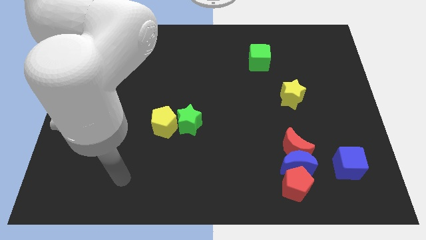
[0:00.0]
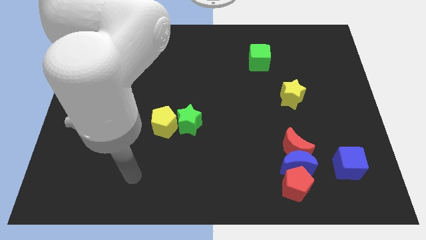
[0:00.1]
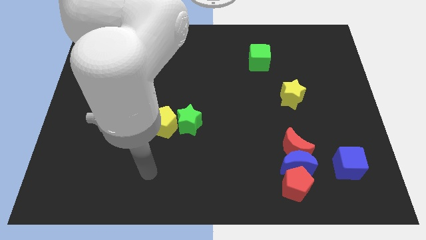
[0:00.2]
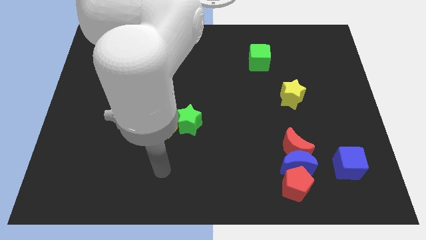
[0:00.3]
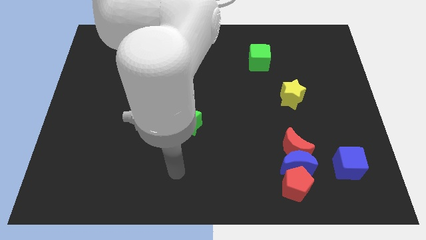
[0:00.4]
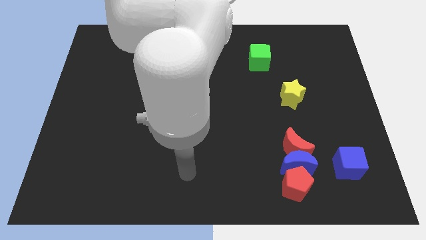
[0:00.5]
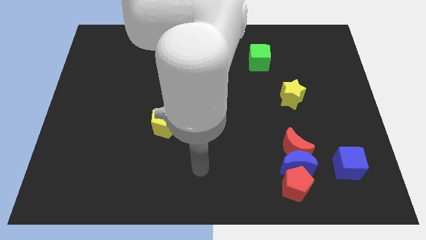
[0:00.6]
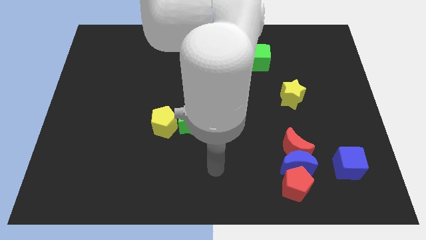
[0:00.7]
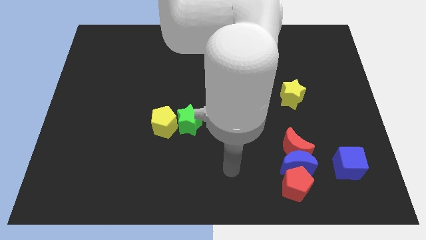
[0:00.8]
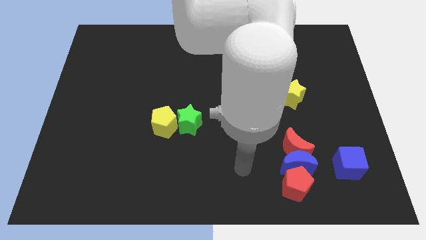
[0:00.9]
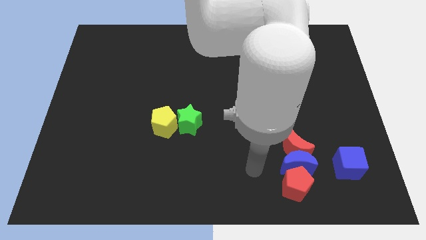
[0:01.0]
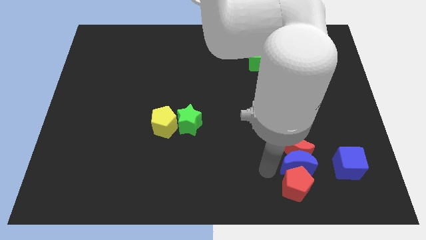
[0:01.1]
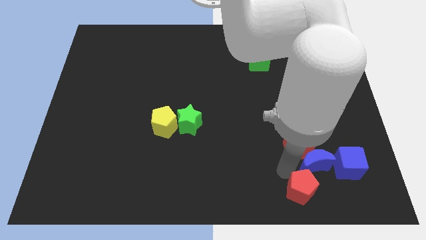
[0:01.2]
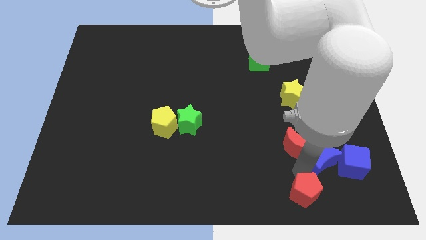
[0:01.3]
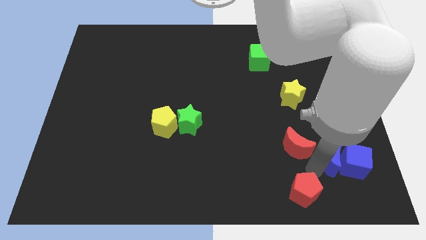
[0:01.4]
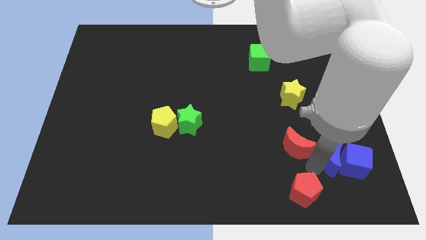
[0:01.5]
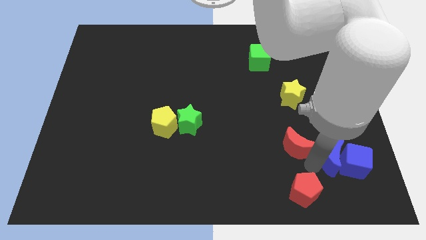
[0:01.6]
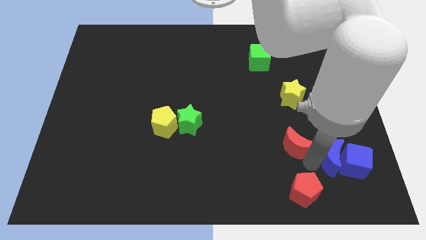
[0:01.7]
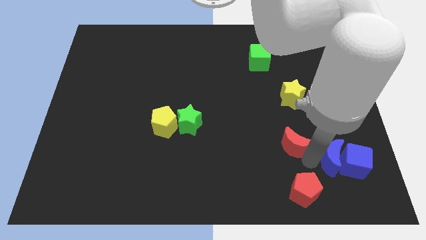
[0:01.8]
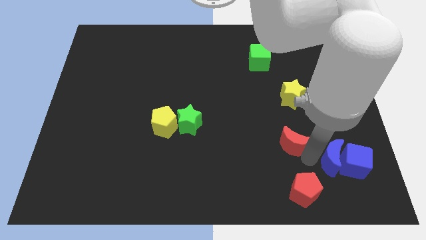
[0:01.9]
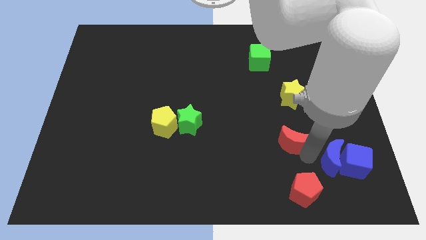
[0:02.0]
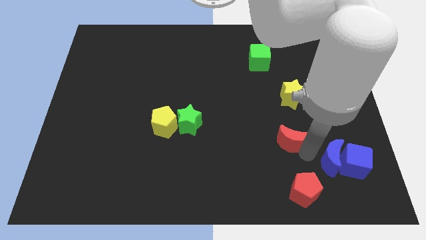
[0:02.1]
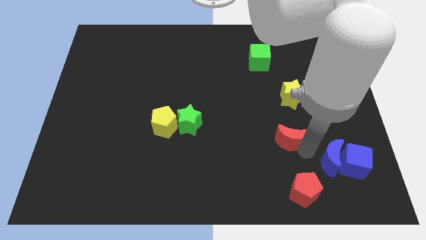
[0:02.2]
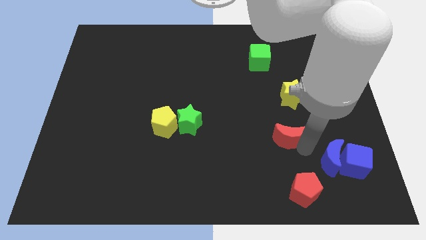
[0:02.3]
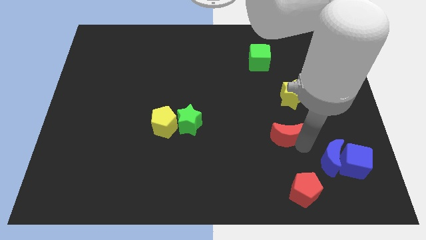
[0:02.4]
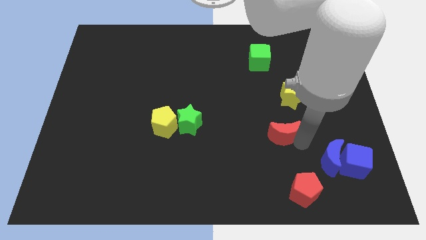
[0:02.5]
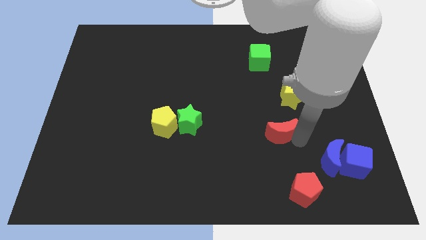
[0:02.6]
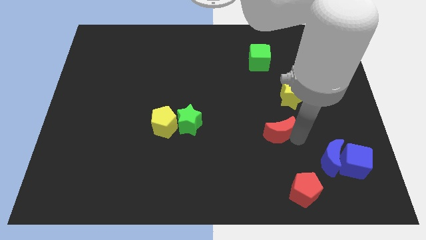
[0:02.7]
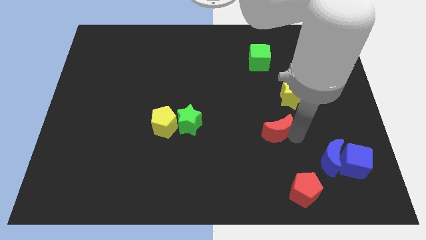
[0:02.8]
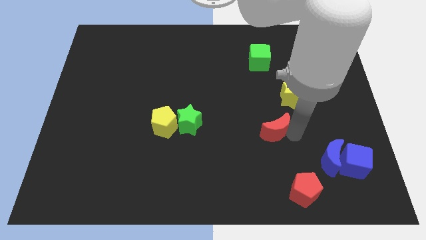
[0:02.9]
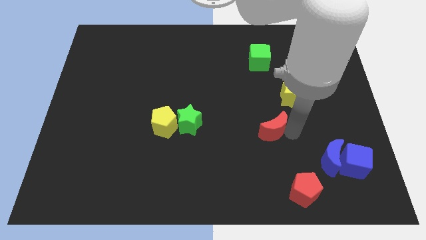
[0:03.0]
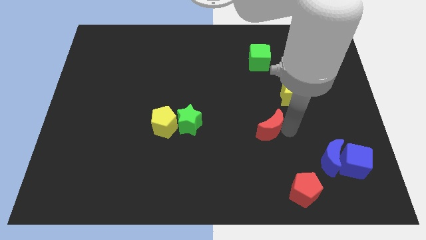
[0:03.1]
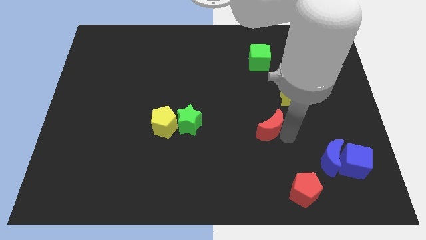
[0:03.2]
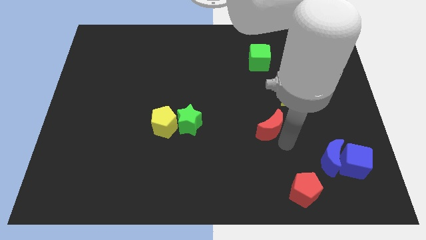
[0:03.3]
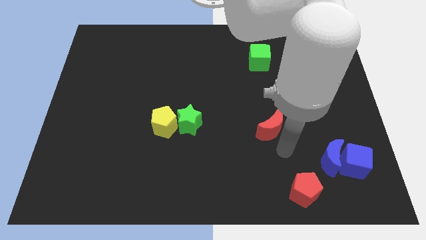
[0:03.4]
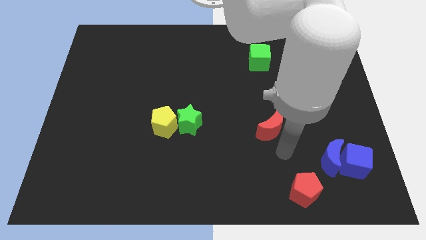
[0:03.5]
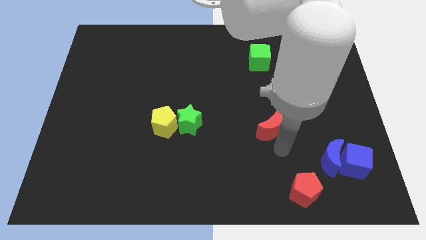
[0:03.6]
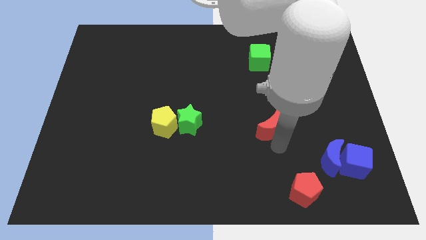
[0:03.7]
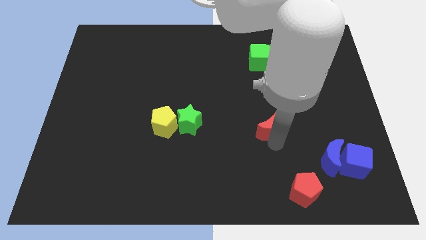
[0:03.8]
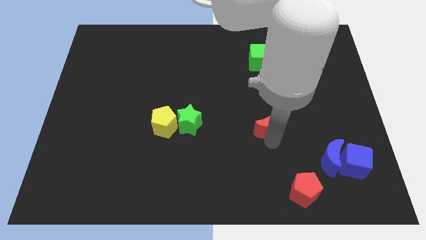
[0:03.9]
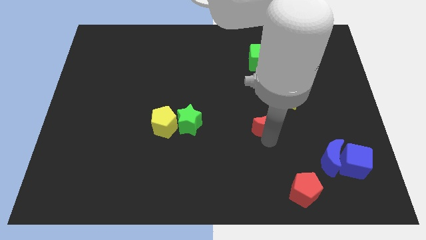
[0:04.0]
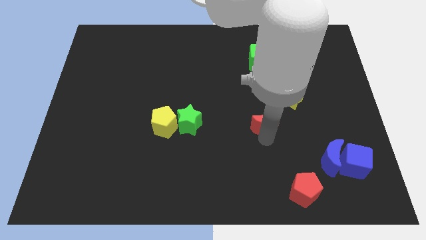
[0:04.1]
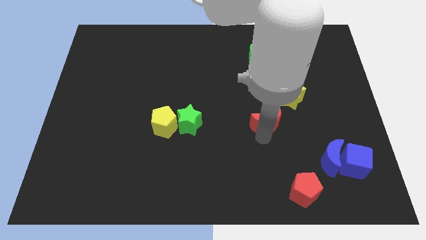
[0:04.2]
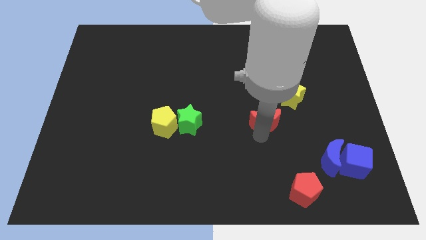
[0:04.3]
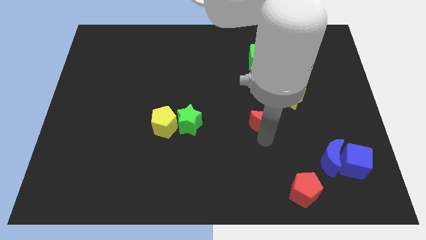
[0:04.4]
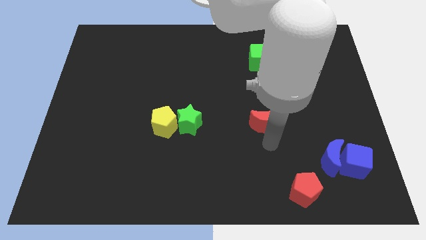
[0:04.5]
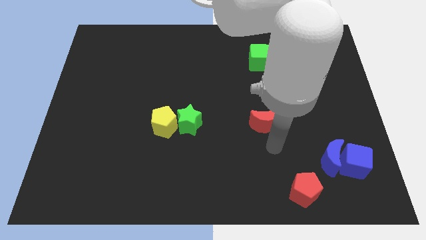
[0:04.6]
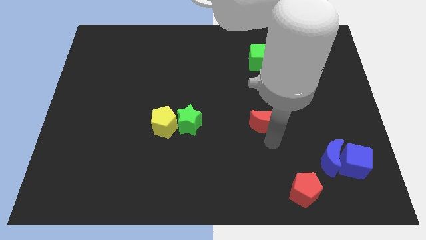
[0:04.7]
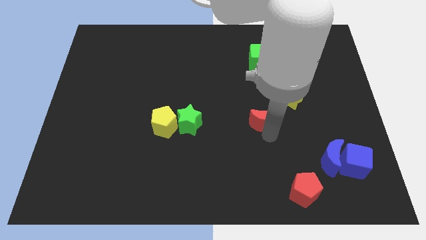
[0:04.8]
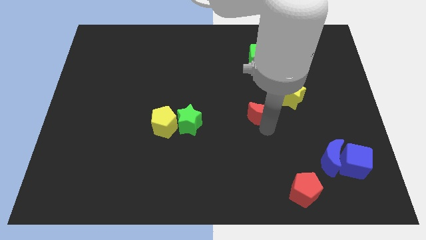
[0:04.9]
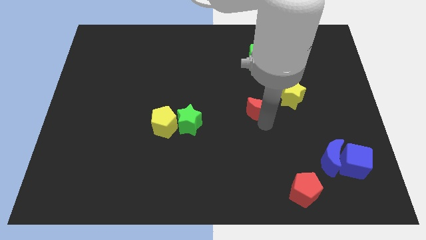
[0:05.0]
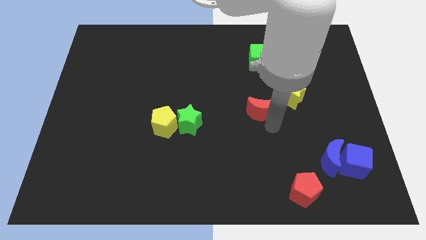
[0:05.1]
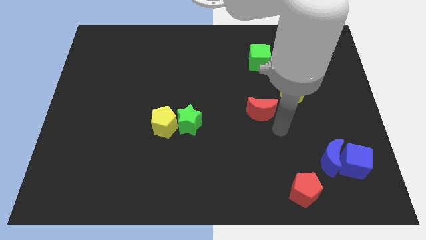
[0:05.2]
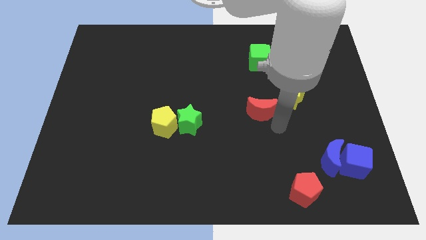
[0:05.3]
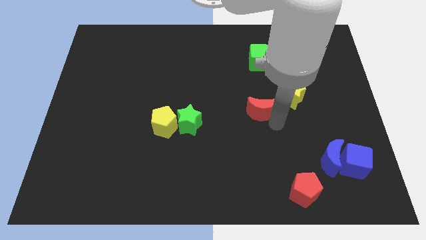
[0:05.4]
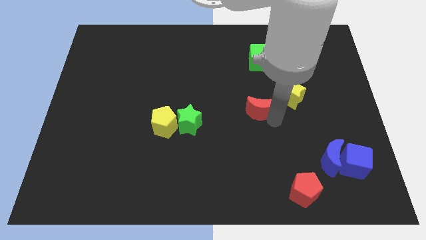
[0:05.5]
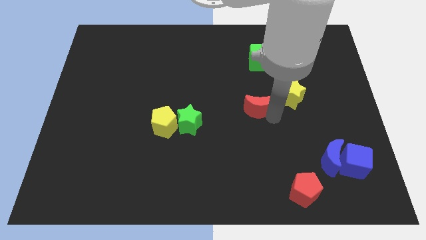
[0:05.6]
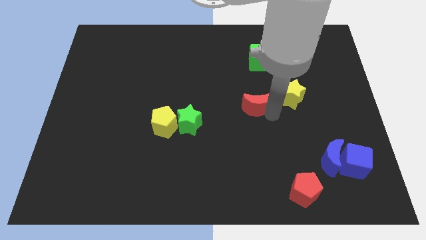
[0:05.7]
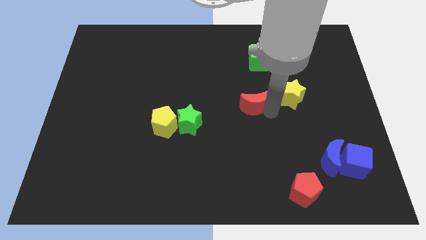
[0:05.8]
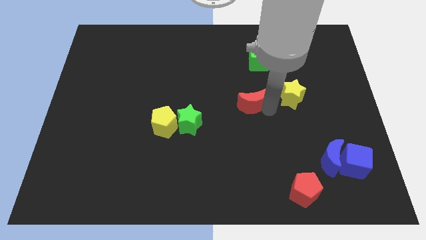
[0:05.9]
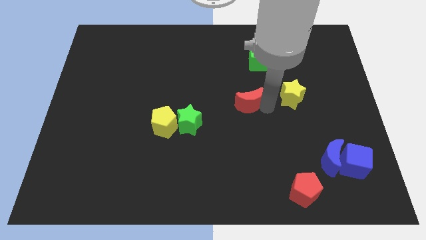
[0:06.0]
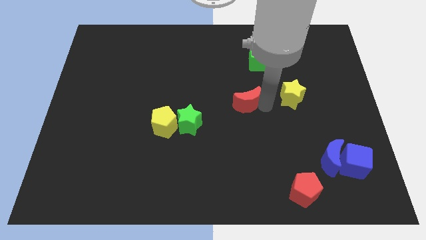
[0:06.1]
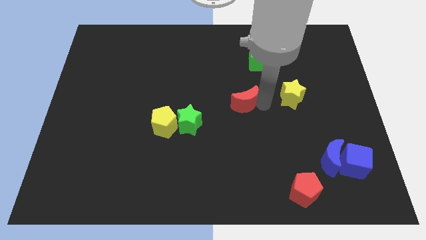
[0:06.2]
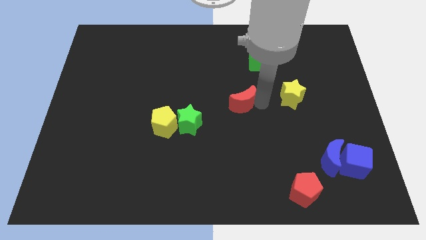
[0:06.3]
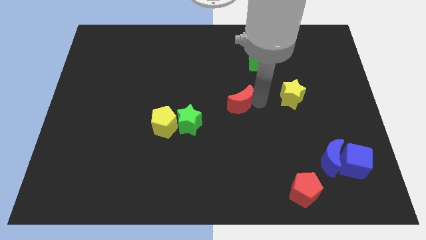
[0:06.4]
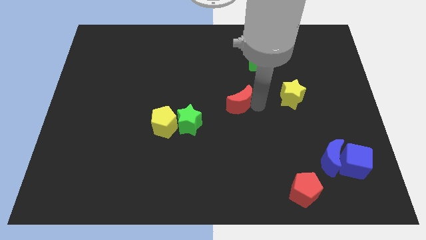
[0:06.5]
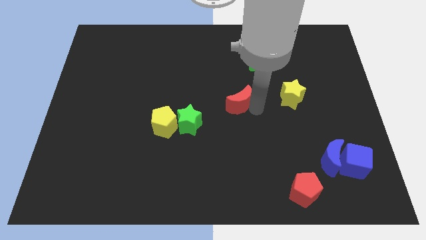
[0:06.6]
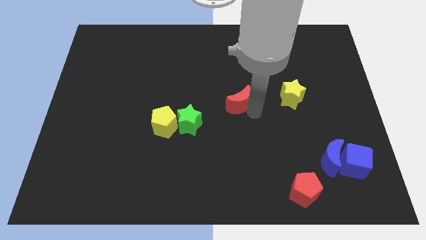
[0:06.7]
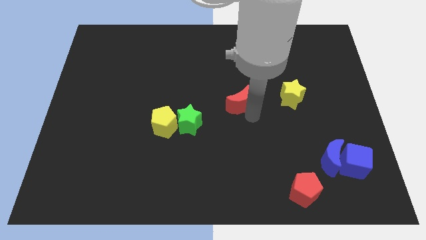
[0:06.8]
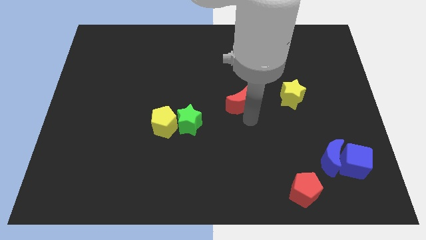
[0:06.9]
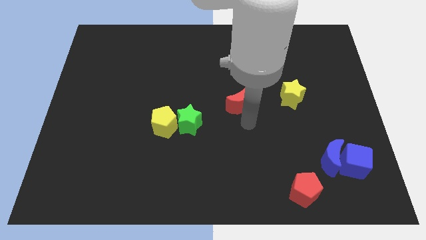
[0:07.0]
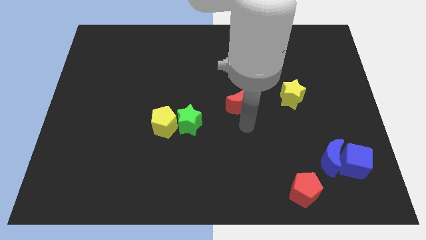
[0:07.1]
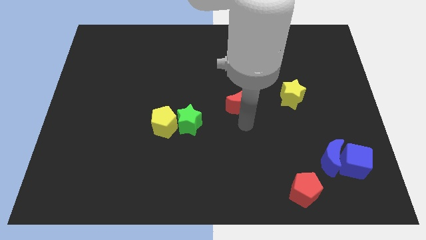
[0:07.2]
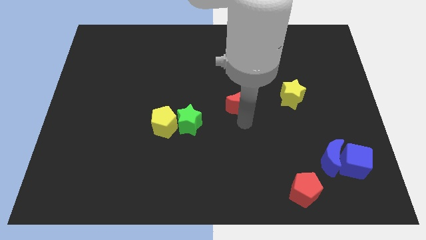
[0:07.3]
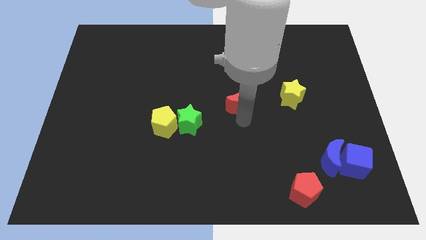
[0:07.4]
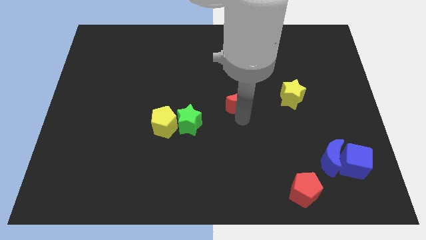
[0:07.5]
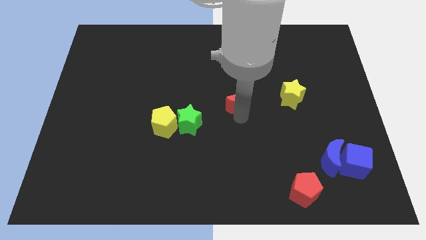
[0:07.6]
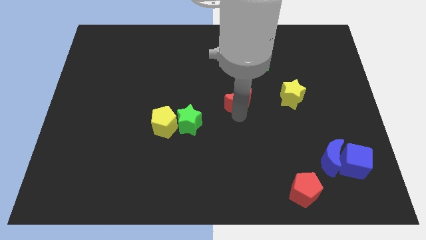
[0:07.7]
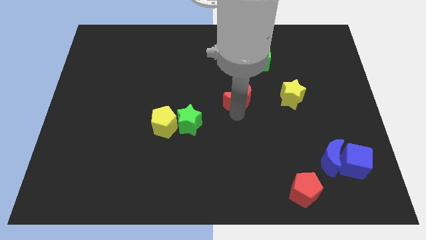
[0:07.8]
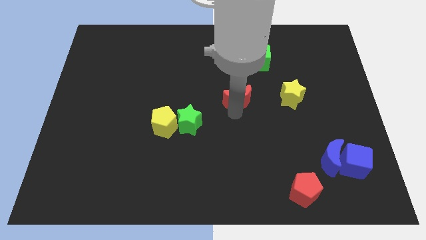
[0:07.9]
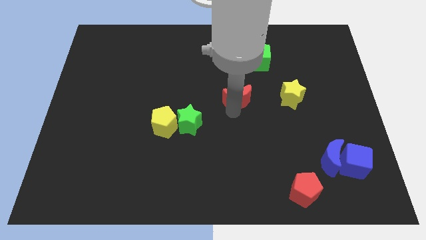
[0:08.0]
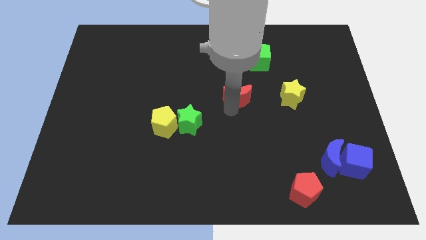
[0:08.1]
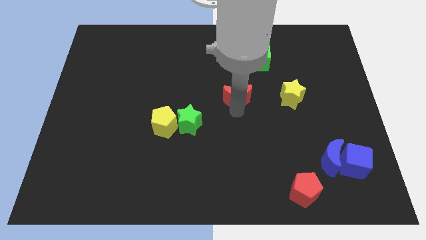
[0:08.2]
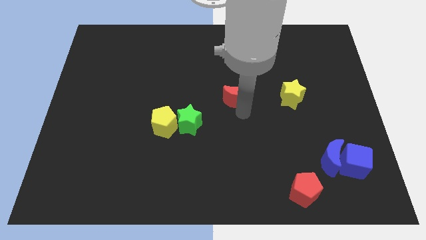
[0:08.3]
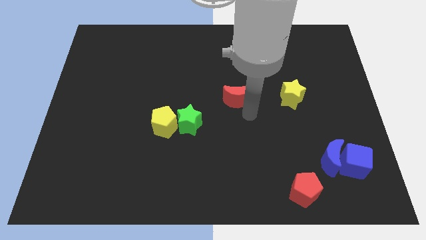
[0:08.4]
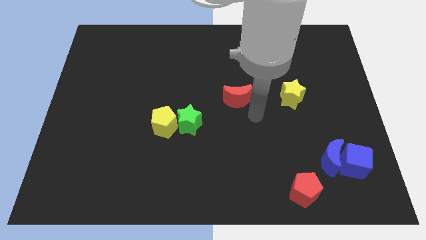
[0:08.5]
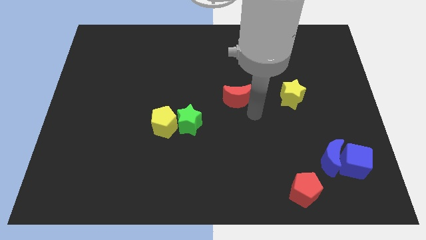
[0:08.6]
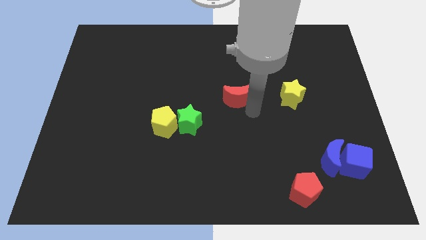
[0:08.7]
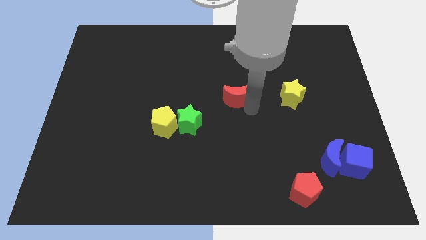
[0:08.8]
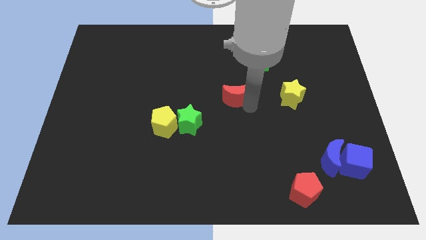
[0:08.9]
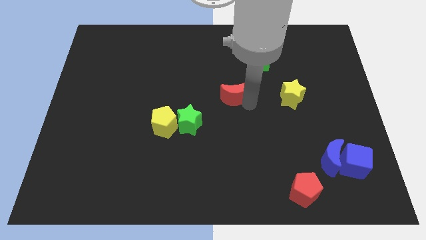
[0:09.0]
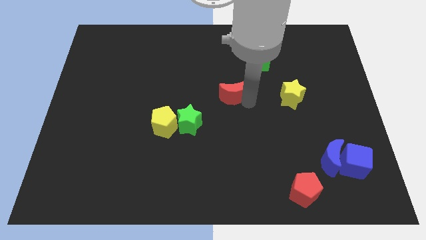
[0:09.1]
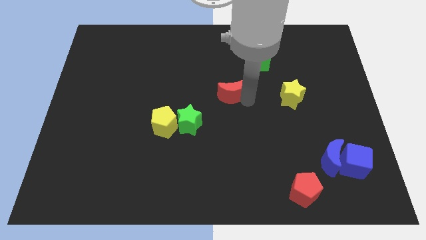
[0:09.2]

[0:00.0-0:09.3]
slide the red moon upwards and then left
